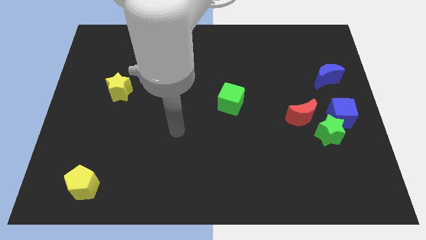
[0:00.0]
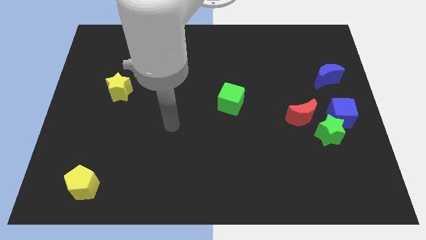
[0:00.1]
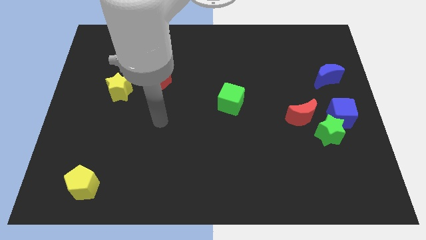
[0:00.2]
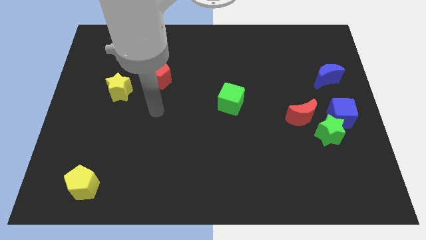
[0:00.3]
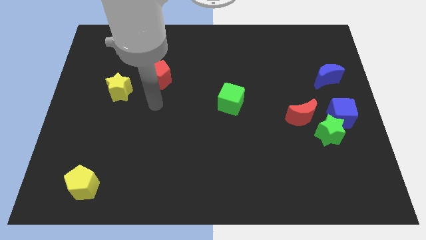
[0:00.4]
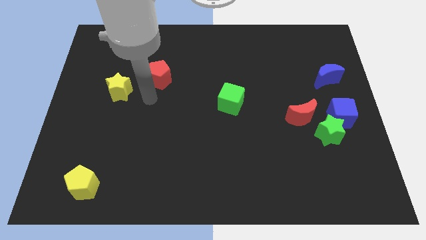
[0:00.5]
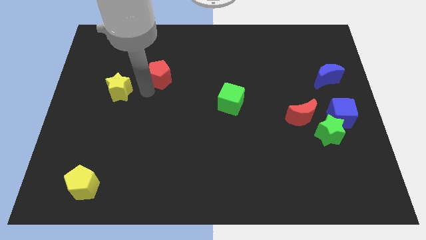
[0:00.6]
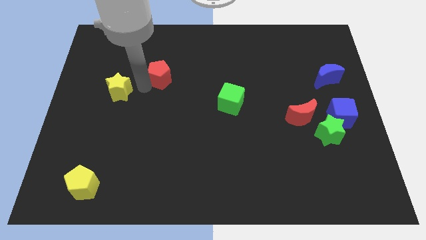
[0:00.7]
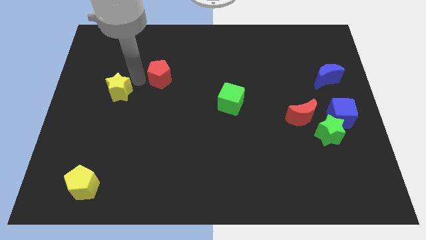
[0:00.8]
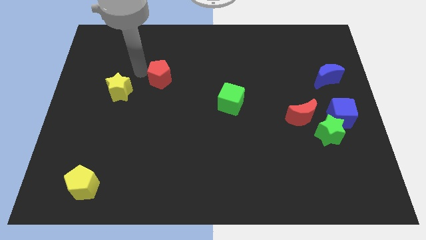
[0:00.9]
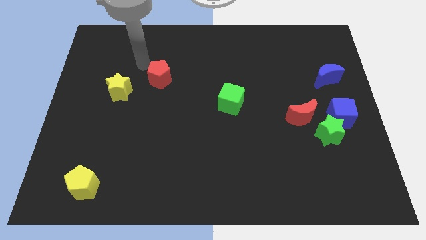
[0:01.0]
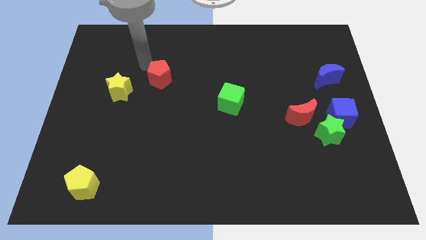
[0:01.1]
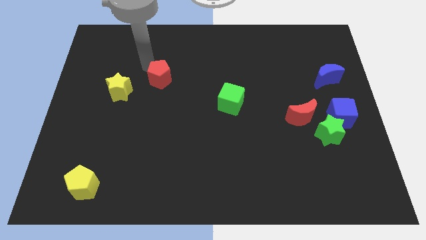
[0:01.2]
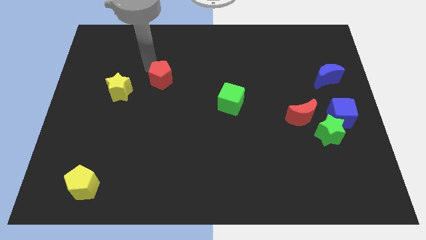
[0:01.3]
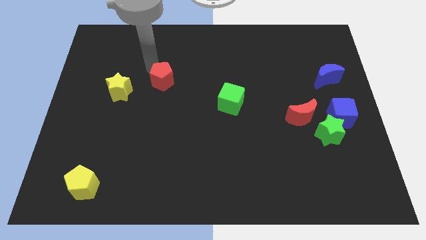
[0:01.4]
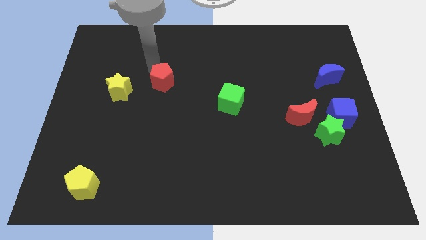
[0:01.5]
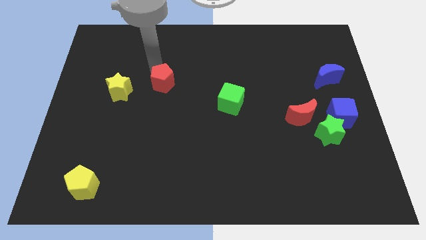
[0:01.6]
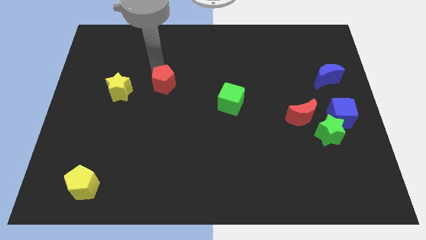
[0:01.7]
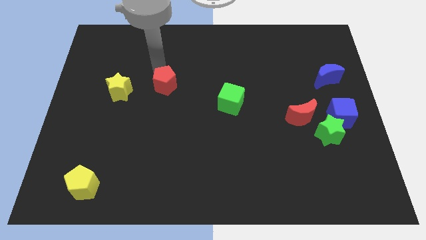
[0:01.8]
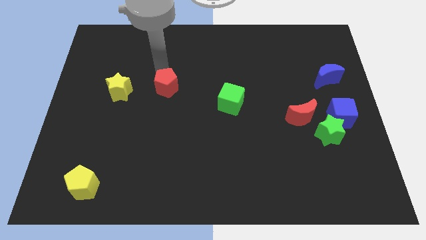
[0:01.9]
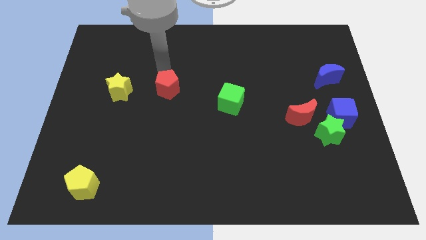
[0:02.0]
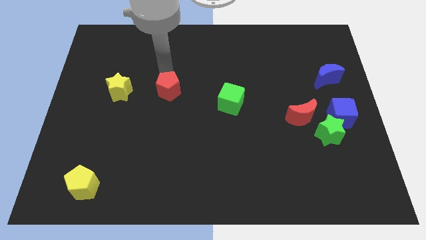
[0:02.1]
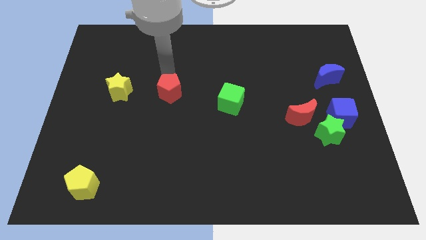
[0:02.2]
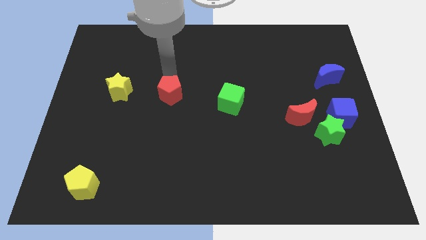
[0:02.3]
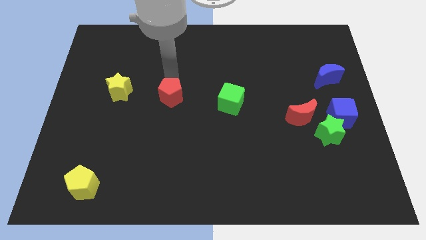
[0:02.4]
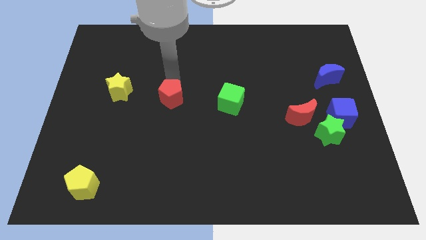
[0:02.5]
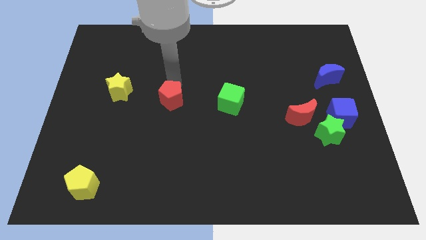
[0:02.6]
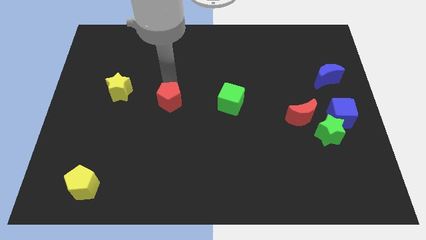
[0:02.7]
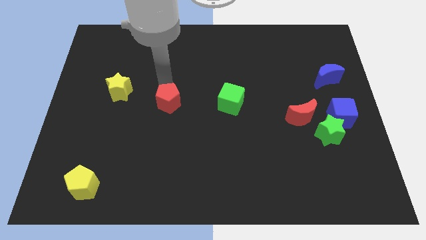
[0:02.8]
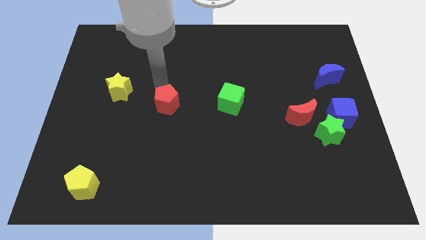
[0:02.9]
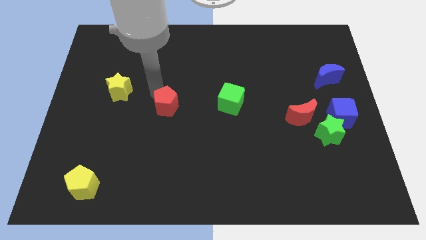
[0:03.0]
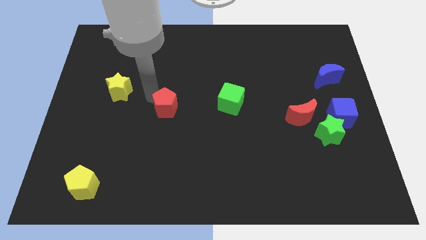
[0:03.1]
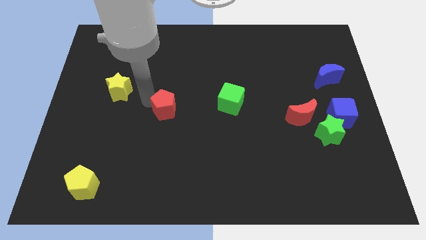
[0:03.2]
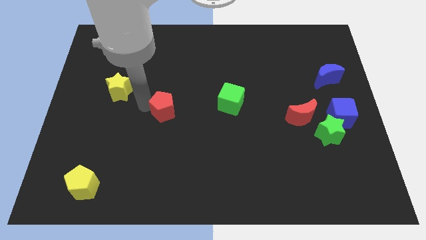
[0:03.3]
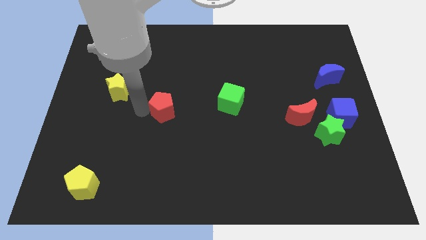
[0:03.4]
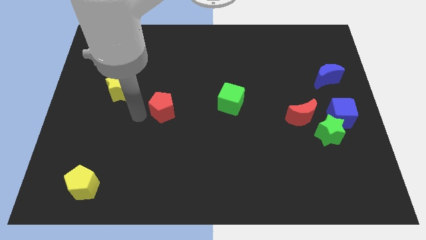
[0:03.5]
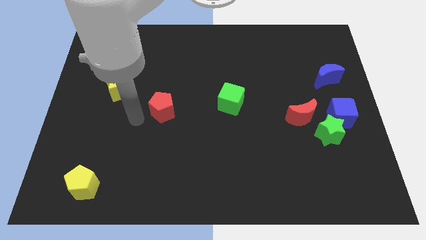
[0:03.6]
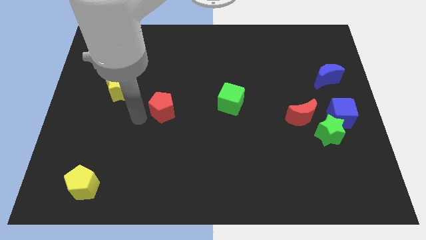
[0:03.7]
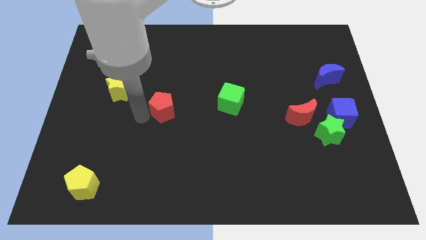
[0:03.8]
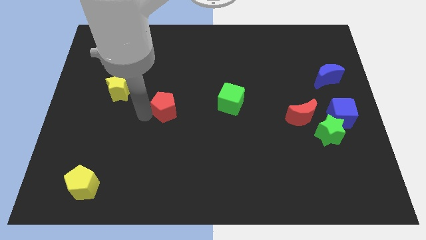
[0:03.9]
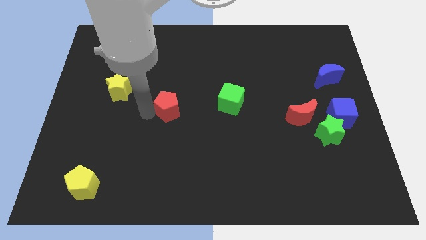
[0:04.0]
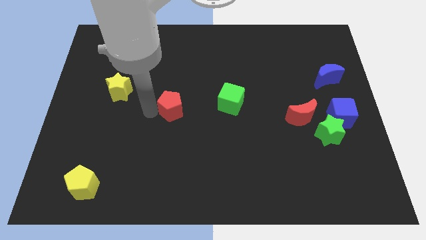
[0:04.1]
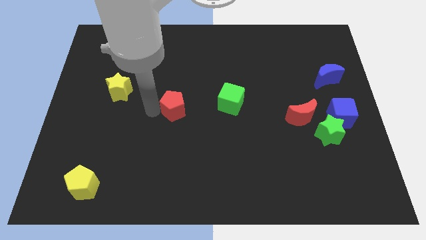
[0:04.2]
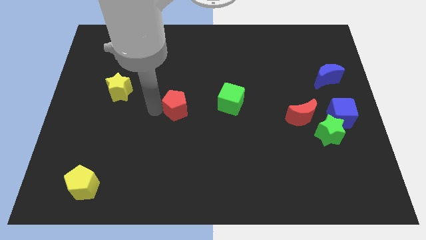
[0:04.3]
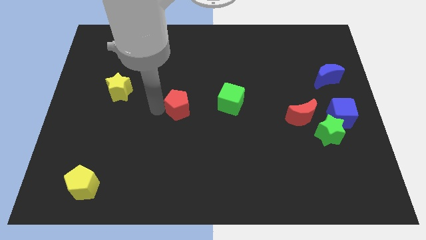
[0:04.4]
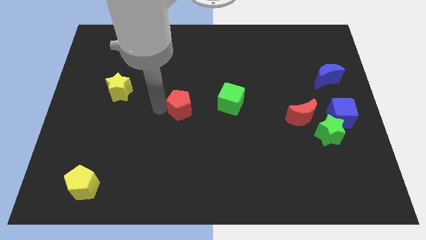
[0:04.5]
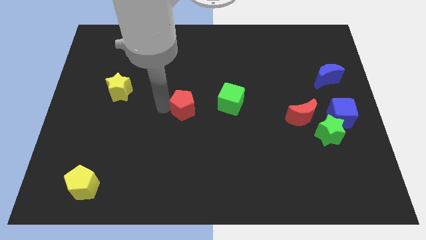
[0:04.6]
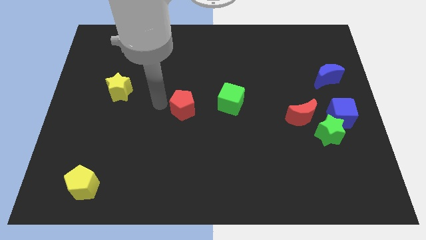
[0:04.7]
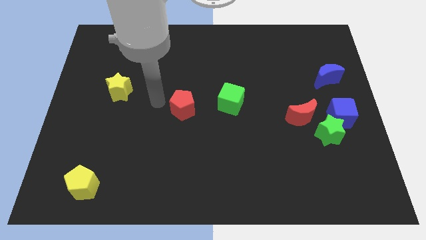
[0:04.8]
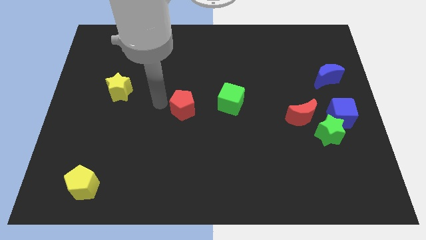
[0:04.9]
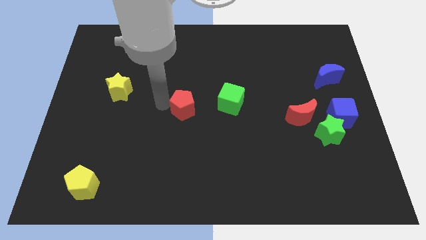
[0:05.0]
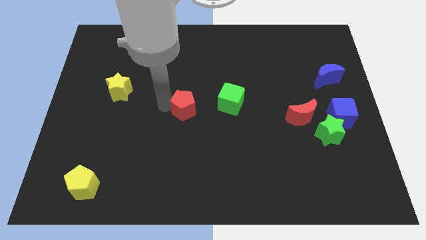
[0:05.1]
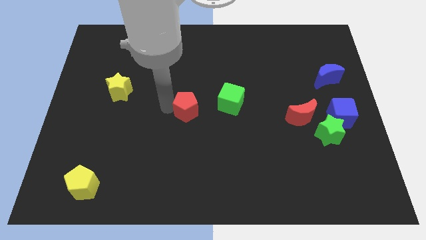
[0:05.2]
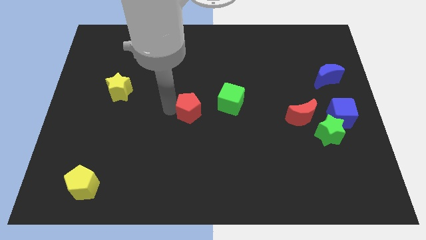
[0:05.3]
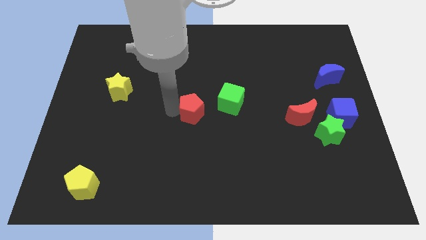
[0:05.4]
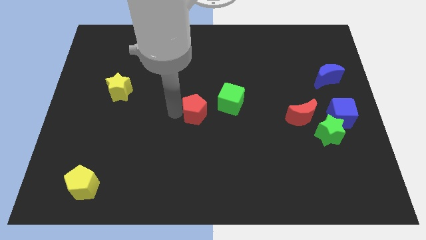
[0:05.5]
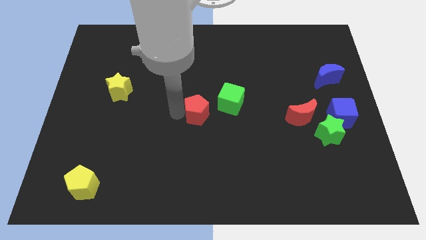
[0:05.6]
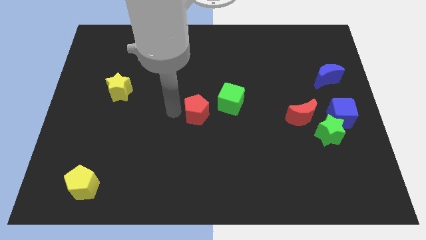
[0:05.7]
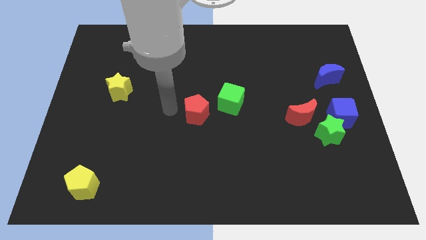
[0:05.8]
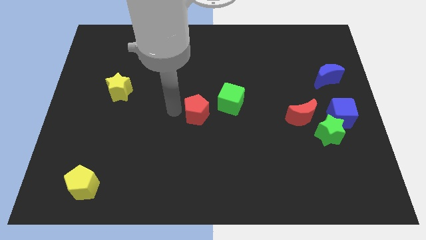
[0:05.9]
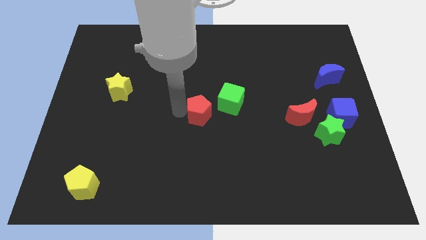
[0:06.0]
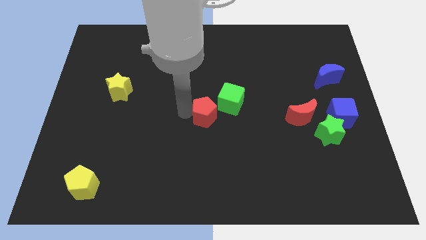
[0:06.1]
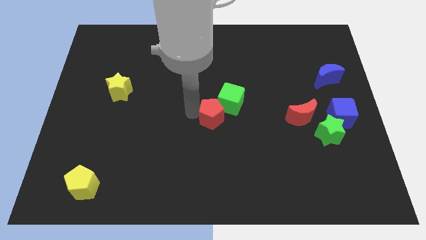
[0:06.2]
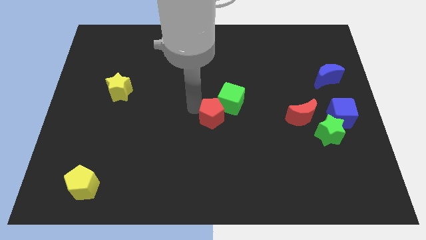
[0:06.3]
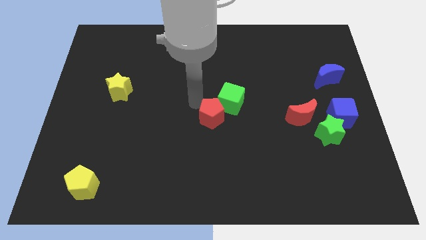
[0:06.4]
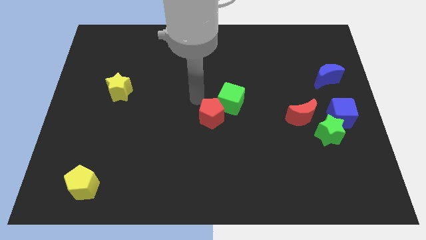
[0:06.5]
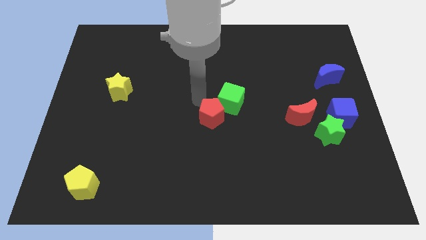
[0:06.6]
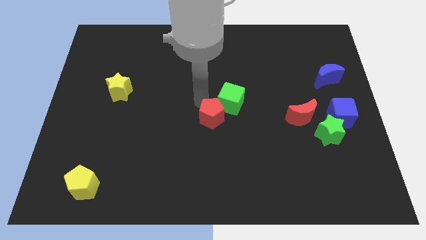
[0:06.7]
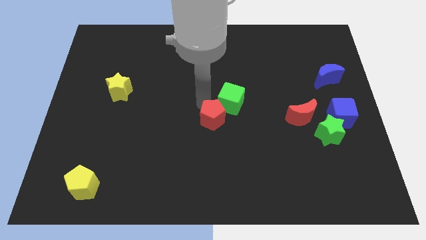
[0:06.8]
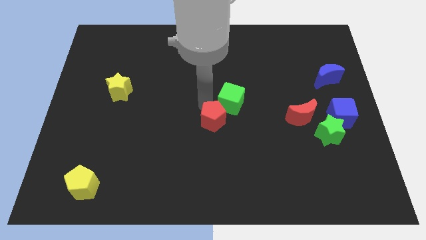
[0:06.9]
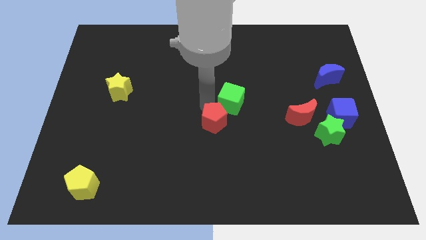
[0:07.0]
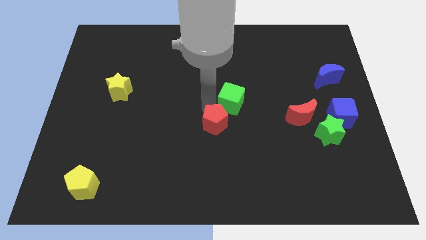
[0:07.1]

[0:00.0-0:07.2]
slide the red pentagon down and to the right diagonally

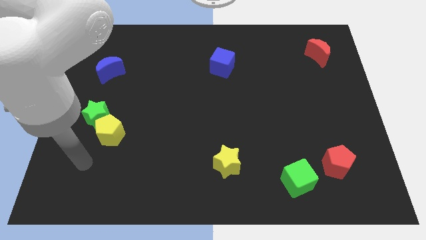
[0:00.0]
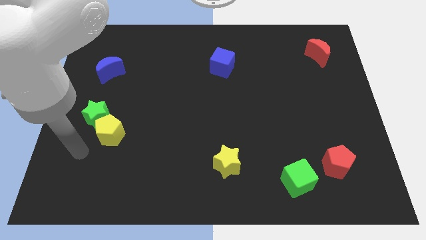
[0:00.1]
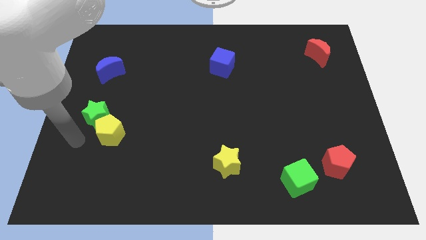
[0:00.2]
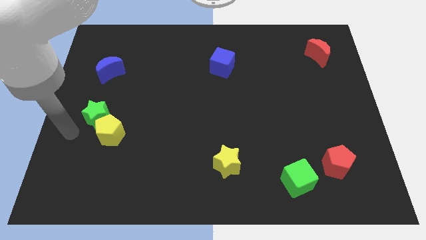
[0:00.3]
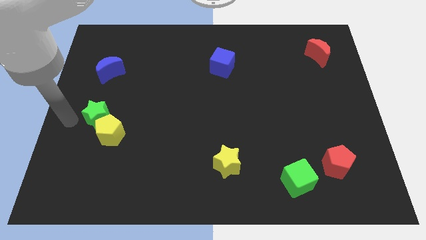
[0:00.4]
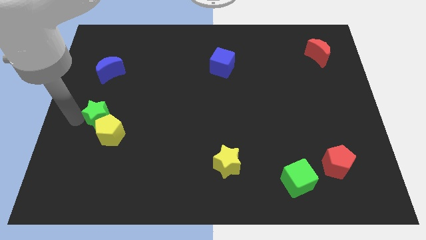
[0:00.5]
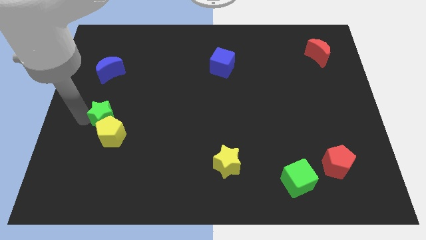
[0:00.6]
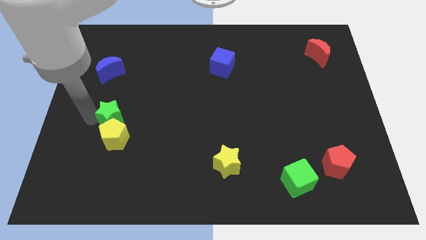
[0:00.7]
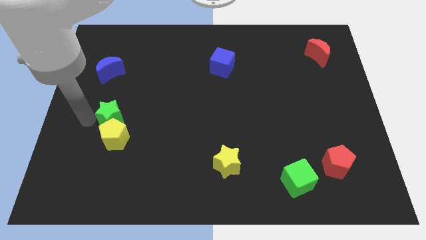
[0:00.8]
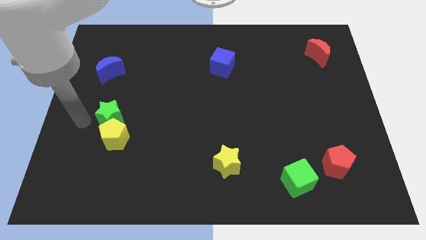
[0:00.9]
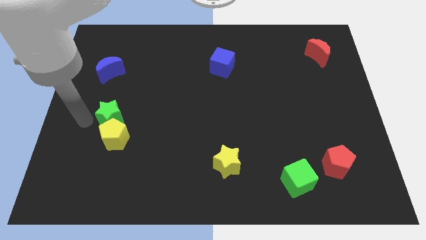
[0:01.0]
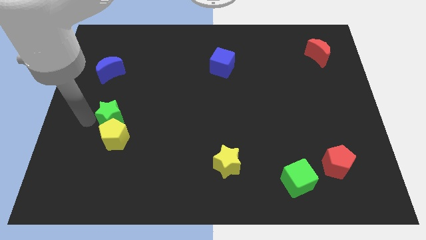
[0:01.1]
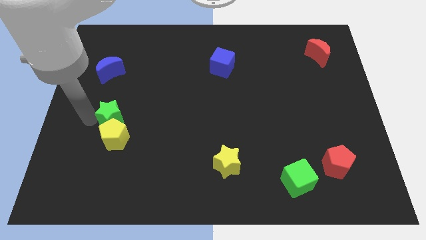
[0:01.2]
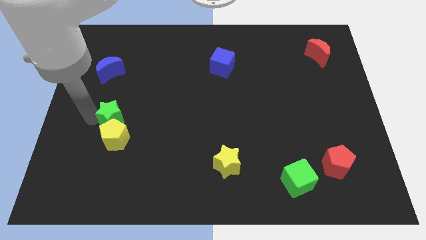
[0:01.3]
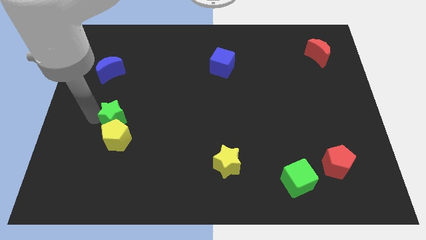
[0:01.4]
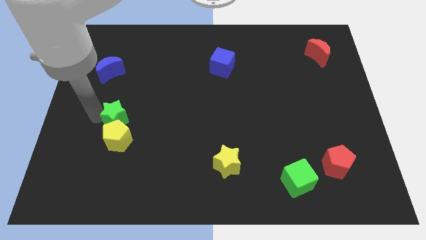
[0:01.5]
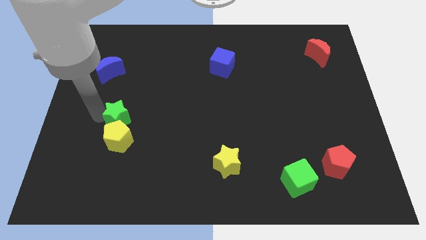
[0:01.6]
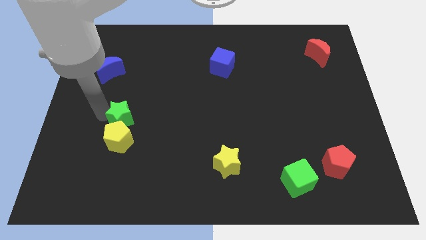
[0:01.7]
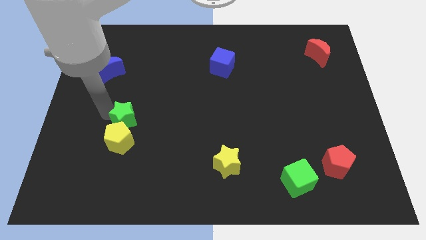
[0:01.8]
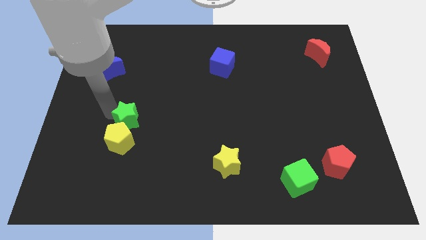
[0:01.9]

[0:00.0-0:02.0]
slide the green star to the right a little bit
